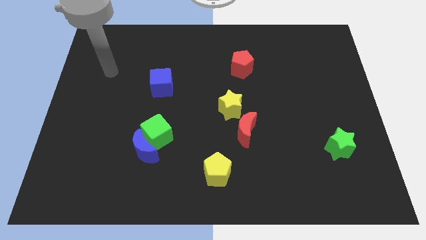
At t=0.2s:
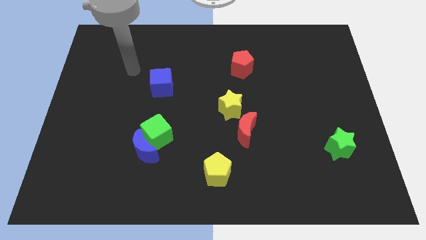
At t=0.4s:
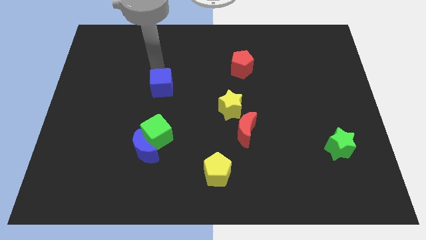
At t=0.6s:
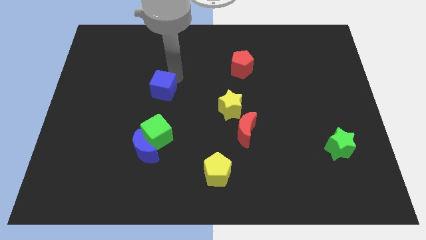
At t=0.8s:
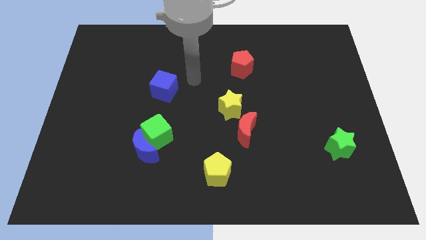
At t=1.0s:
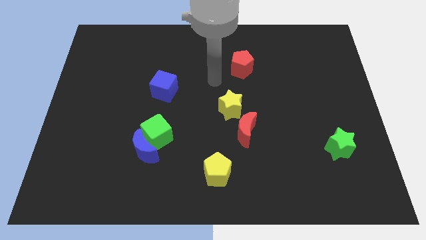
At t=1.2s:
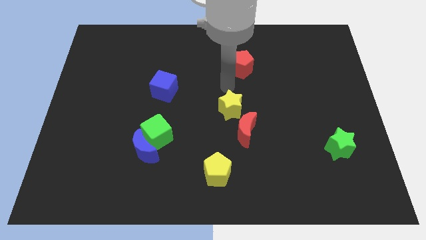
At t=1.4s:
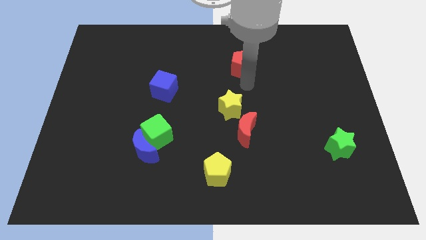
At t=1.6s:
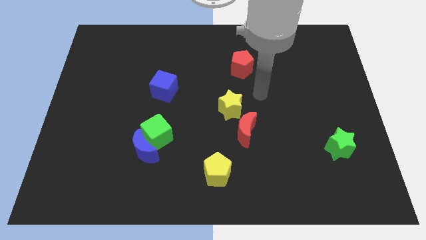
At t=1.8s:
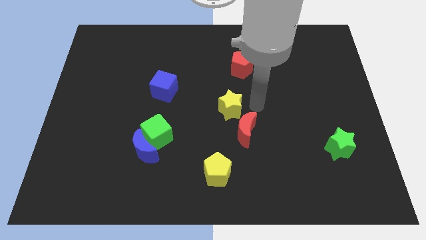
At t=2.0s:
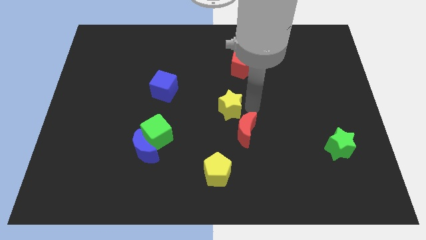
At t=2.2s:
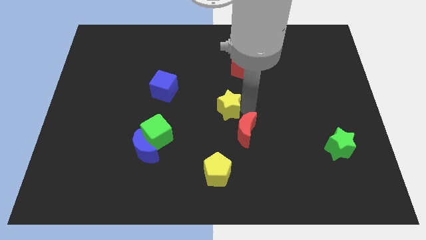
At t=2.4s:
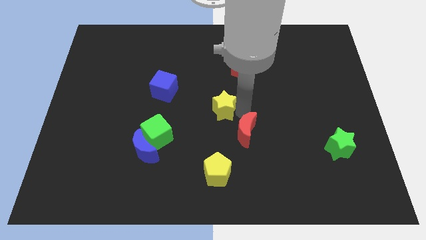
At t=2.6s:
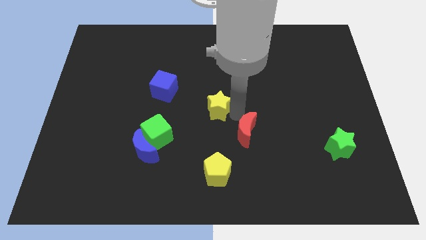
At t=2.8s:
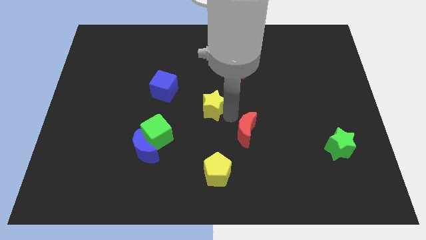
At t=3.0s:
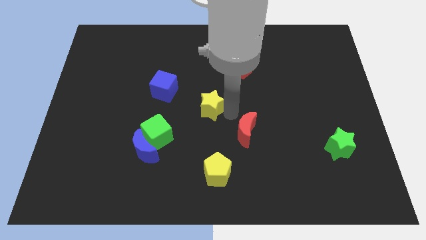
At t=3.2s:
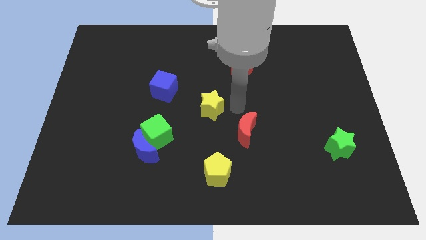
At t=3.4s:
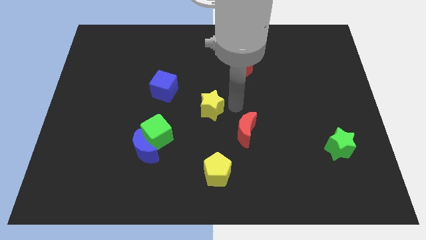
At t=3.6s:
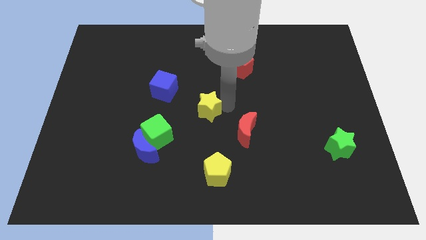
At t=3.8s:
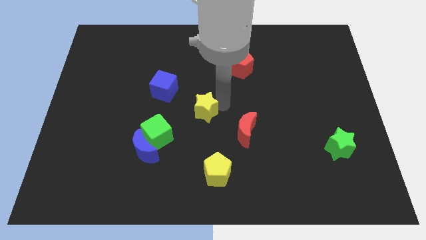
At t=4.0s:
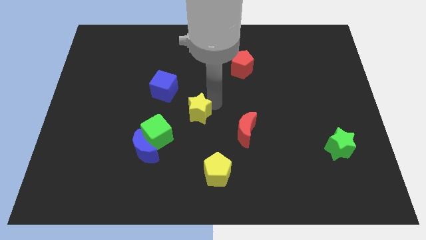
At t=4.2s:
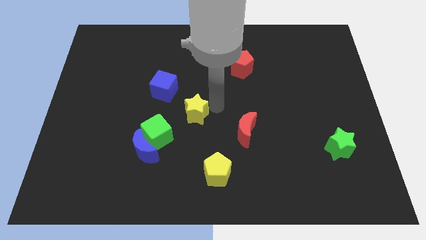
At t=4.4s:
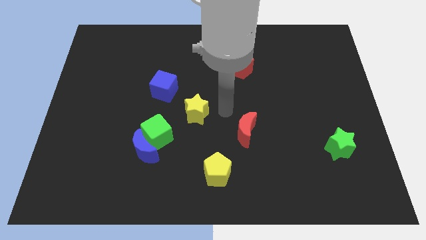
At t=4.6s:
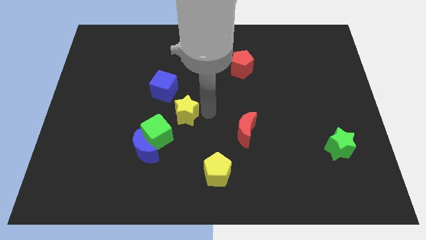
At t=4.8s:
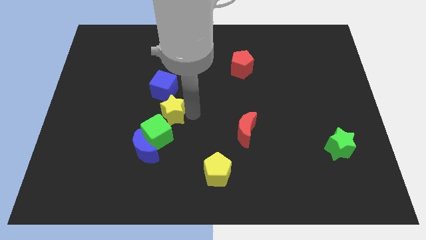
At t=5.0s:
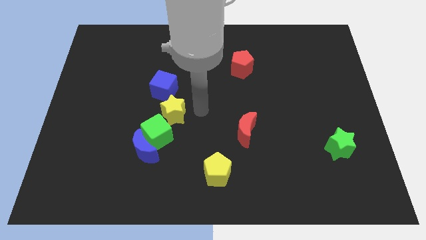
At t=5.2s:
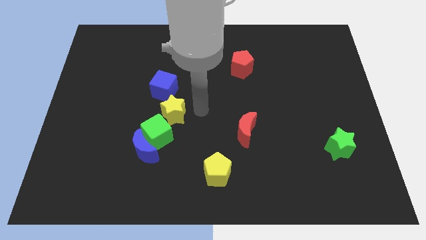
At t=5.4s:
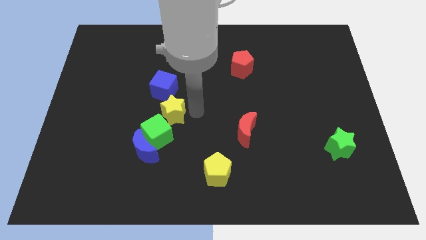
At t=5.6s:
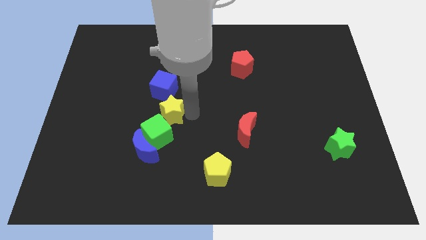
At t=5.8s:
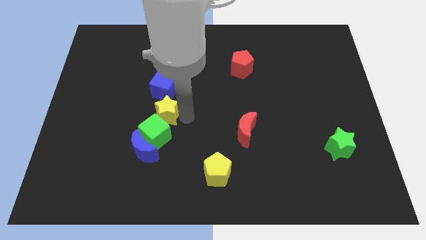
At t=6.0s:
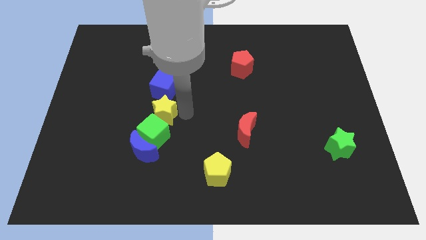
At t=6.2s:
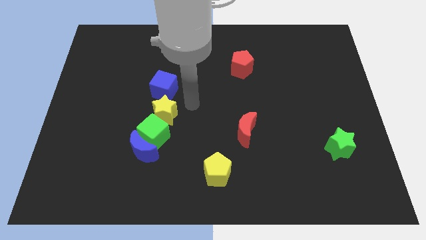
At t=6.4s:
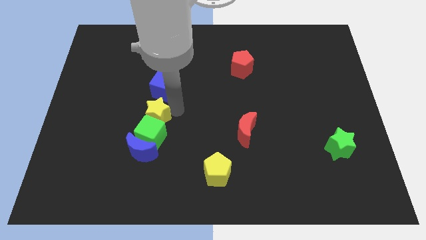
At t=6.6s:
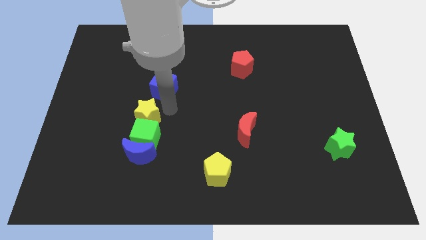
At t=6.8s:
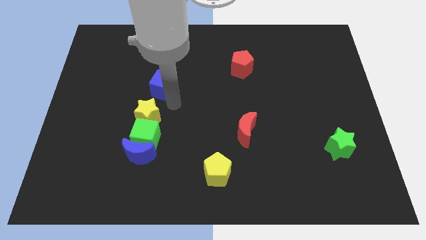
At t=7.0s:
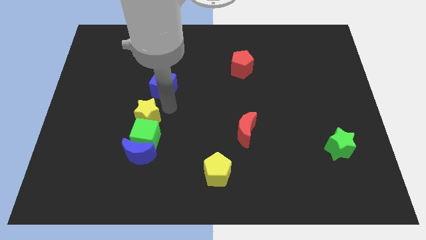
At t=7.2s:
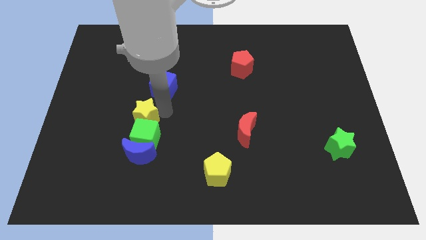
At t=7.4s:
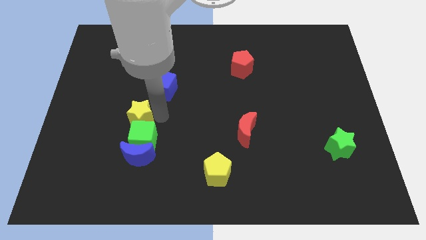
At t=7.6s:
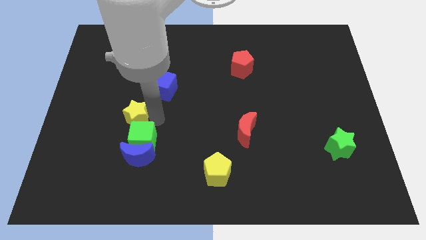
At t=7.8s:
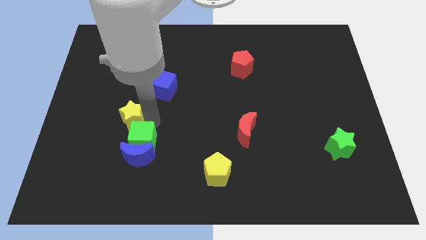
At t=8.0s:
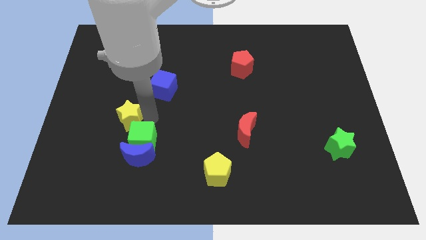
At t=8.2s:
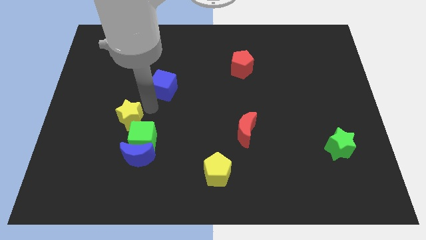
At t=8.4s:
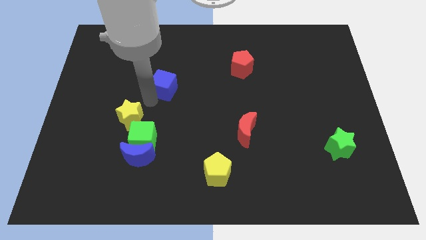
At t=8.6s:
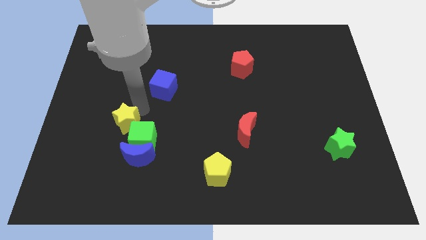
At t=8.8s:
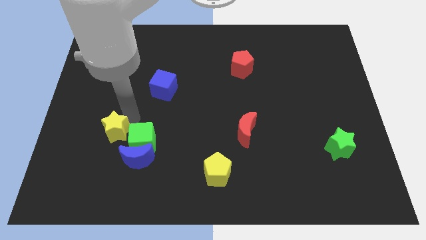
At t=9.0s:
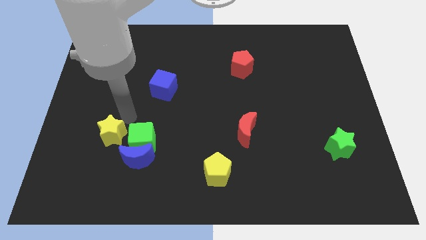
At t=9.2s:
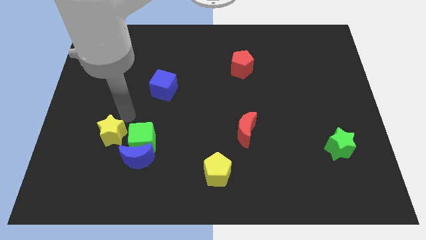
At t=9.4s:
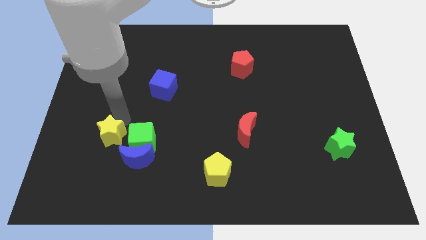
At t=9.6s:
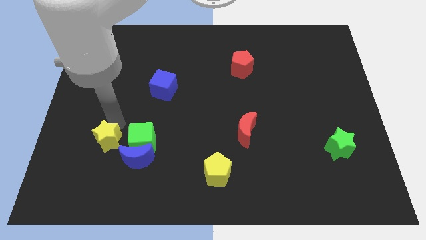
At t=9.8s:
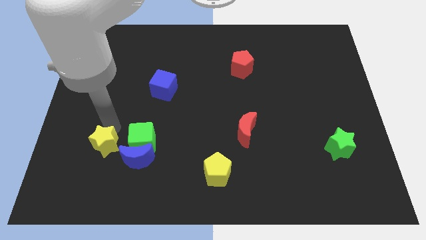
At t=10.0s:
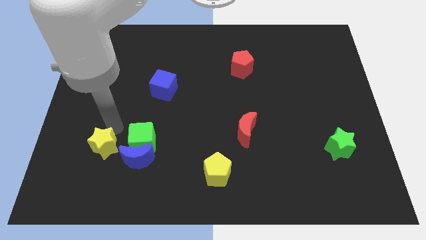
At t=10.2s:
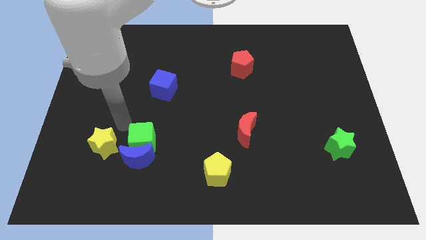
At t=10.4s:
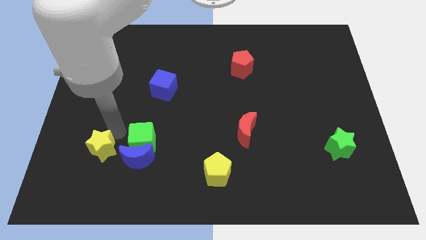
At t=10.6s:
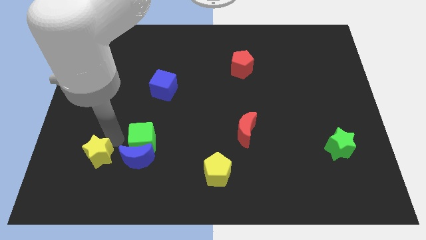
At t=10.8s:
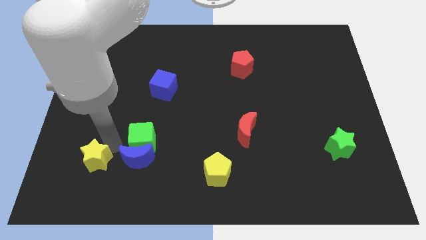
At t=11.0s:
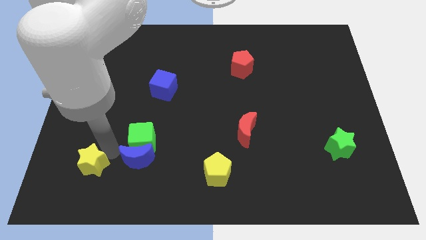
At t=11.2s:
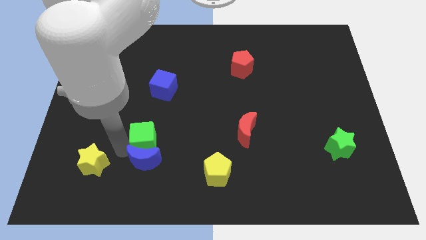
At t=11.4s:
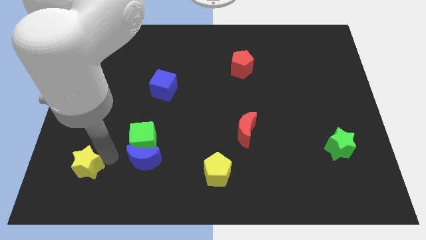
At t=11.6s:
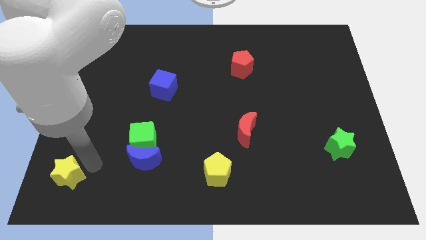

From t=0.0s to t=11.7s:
push the yellow star to the bottom left of the board
